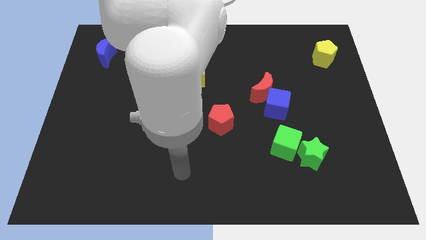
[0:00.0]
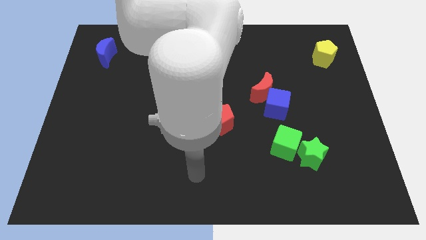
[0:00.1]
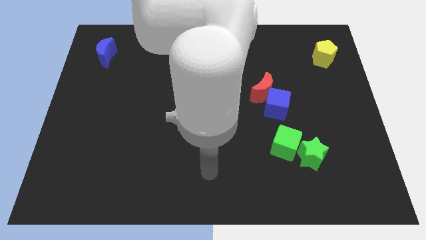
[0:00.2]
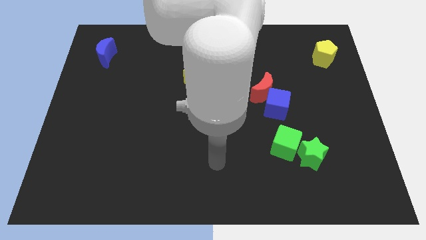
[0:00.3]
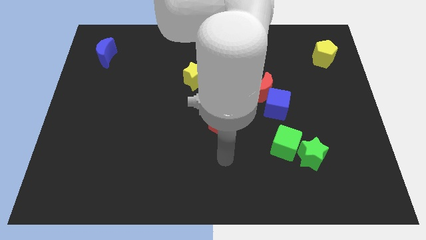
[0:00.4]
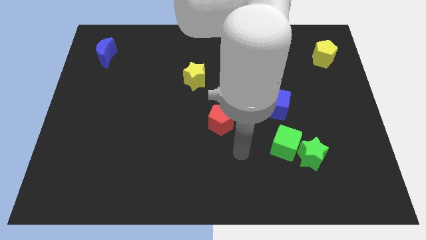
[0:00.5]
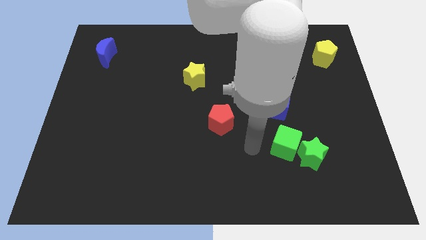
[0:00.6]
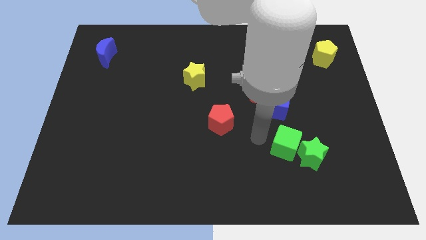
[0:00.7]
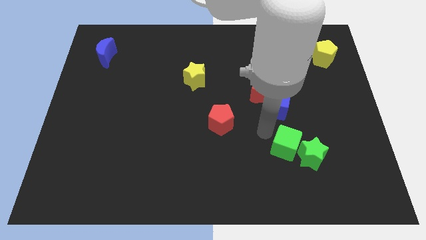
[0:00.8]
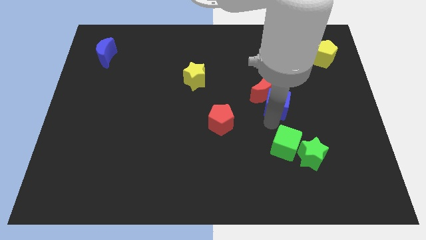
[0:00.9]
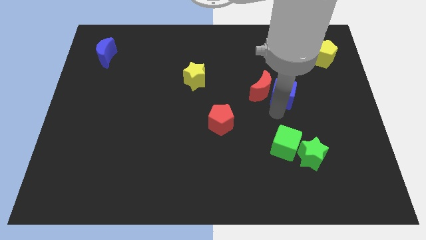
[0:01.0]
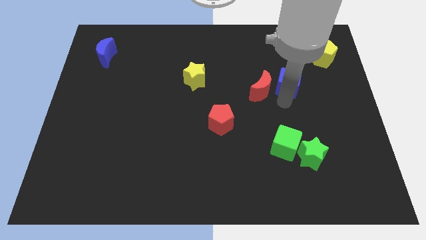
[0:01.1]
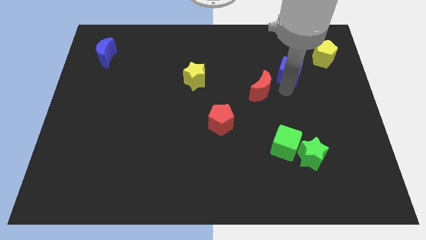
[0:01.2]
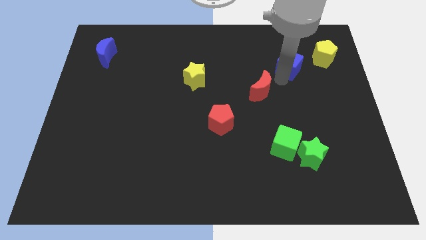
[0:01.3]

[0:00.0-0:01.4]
move the red moon away from the blue cube

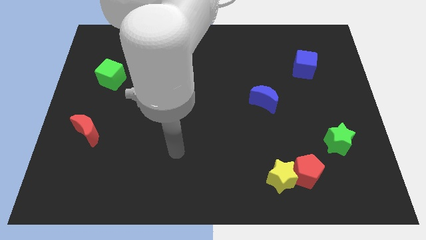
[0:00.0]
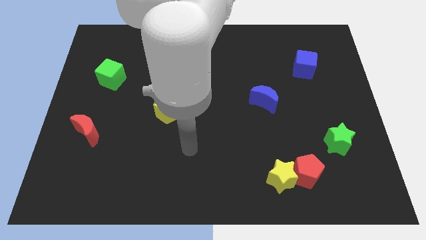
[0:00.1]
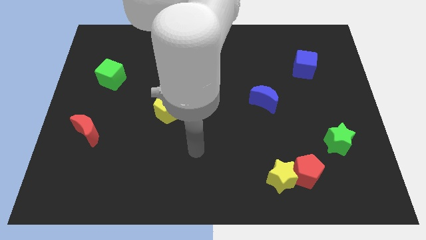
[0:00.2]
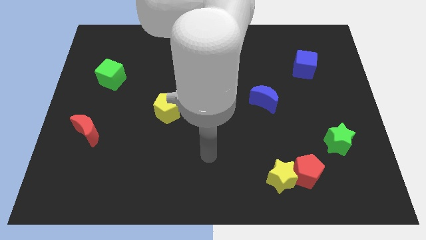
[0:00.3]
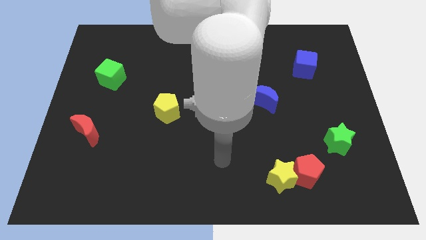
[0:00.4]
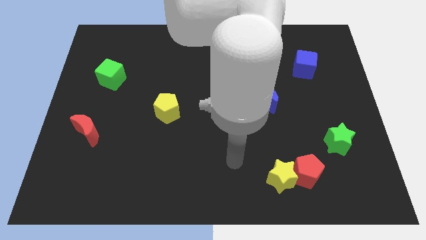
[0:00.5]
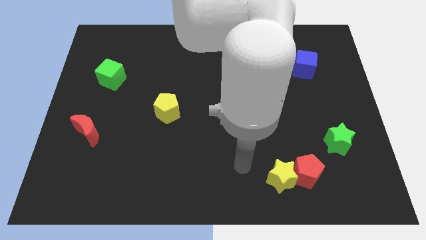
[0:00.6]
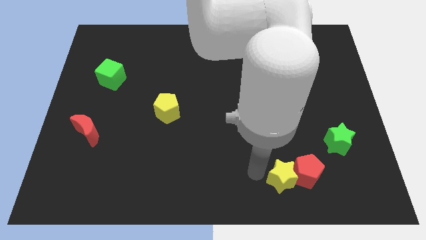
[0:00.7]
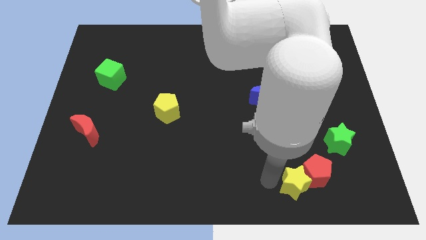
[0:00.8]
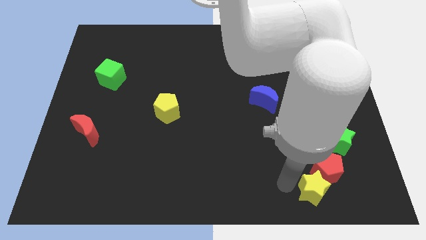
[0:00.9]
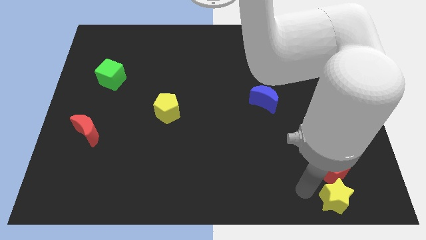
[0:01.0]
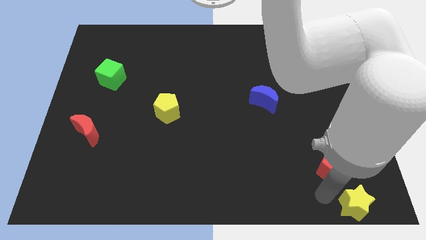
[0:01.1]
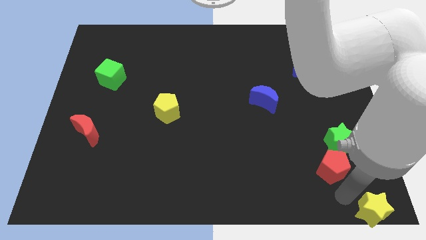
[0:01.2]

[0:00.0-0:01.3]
separate the red pentagon from the yellow star

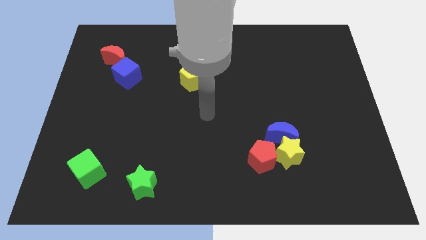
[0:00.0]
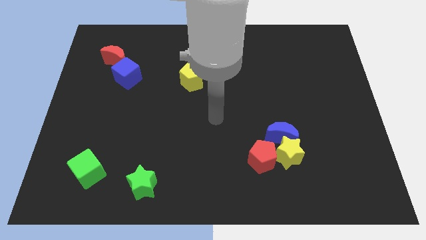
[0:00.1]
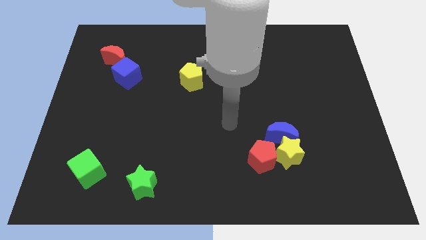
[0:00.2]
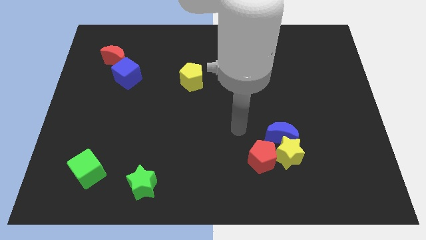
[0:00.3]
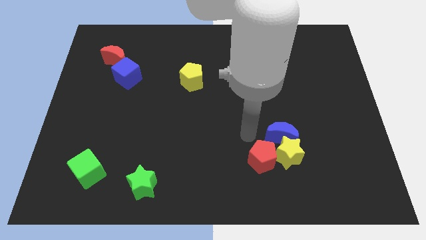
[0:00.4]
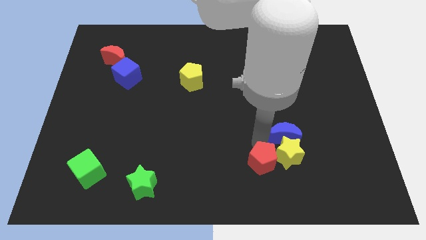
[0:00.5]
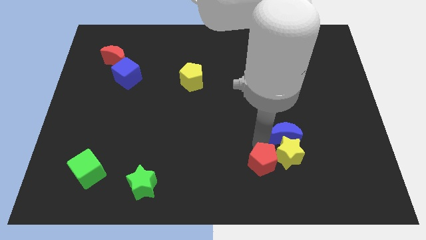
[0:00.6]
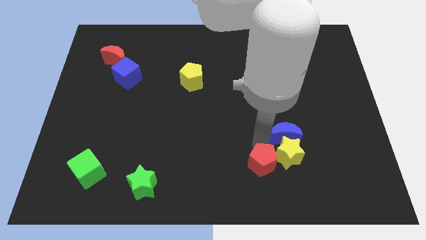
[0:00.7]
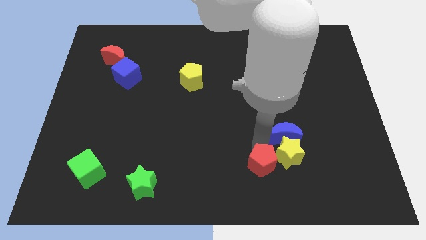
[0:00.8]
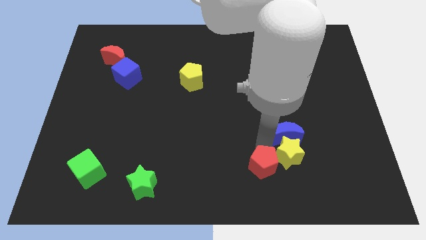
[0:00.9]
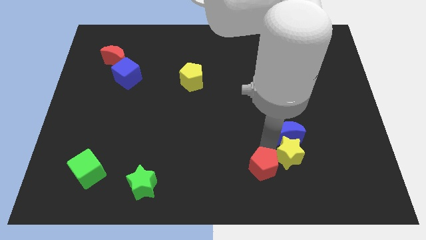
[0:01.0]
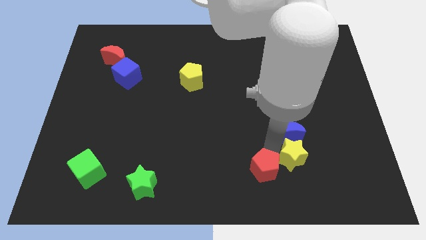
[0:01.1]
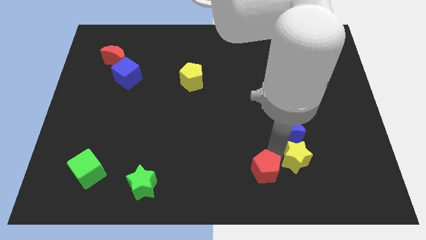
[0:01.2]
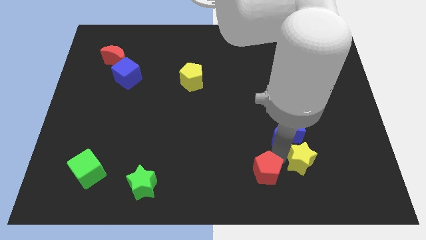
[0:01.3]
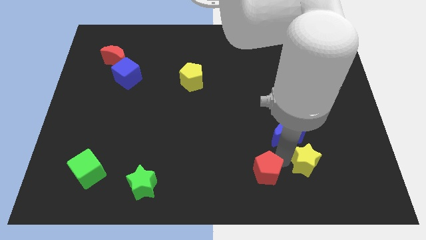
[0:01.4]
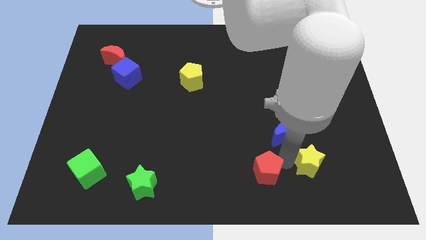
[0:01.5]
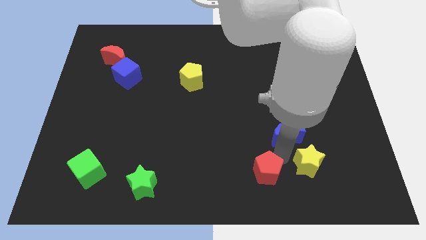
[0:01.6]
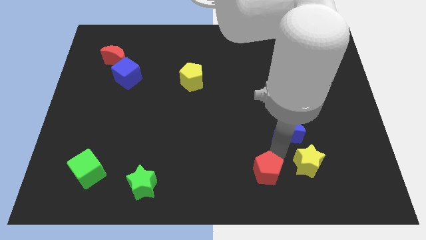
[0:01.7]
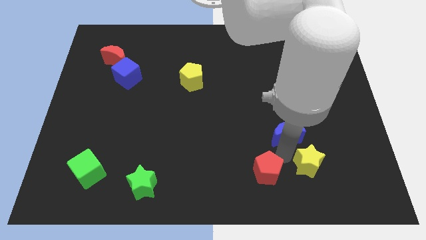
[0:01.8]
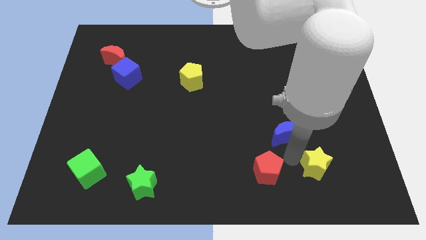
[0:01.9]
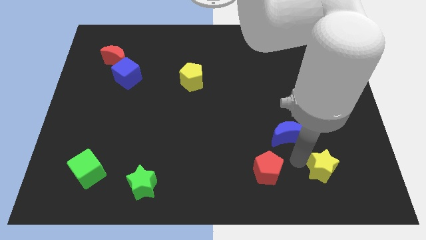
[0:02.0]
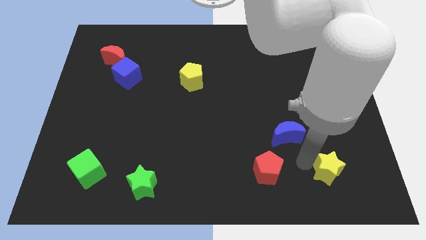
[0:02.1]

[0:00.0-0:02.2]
move the yellow star away from the blue moon and red pentagon

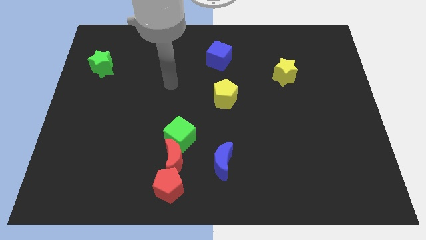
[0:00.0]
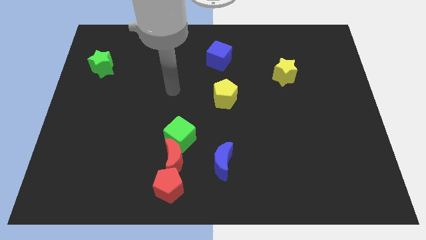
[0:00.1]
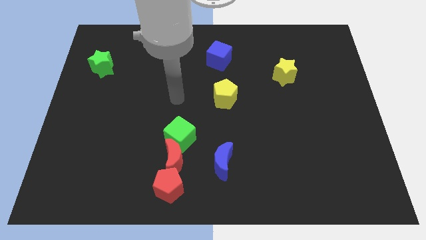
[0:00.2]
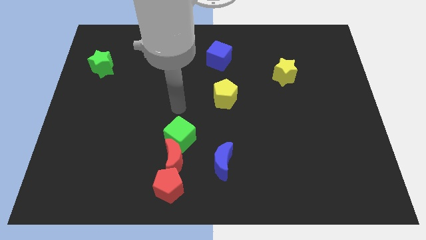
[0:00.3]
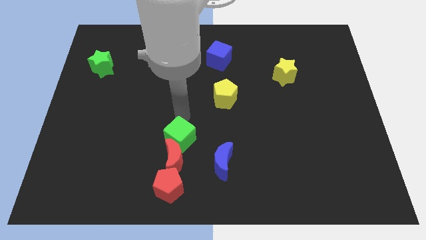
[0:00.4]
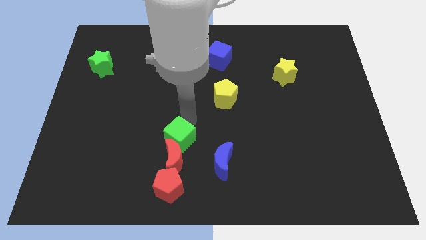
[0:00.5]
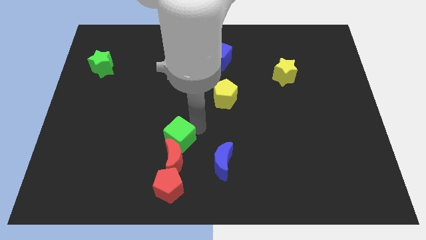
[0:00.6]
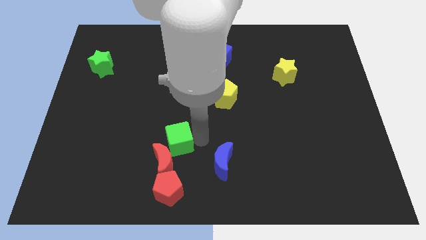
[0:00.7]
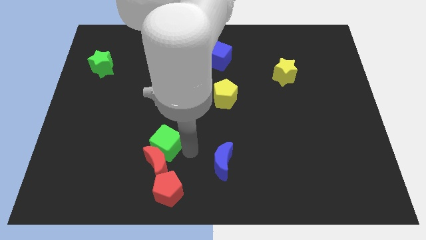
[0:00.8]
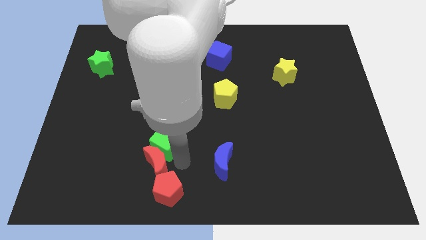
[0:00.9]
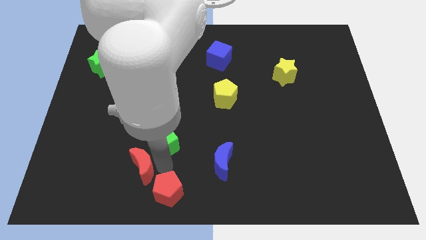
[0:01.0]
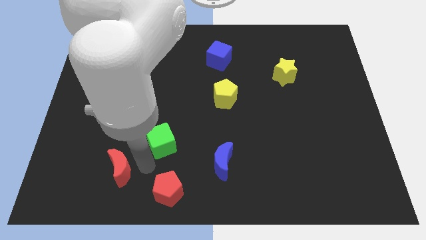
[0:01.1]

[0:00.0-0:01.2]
move the green cube away from the red moon

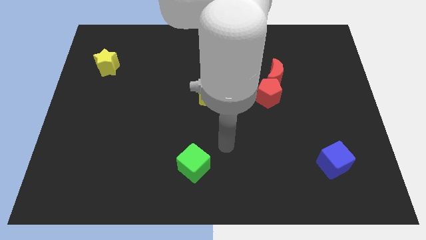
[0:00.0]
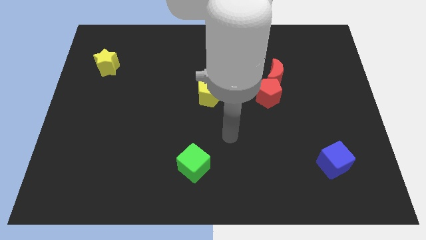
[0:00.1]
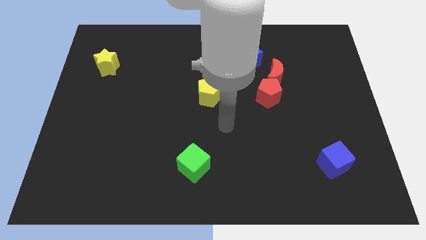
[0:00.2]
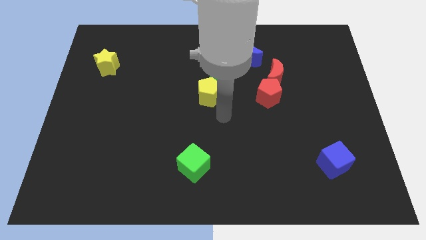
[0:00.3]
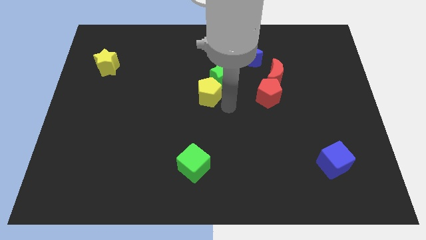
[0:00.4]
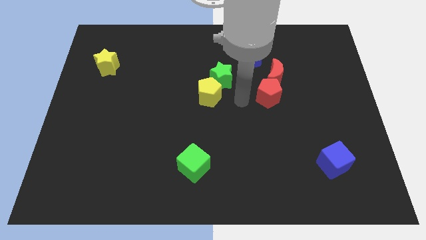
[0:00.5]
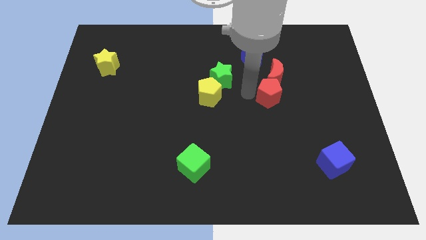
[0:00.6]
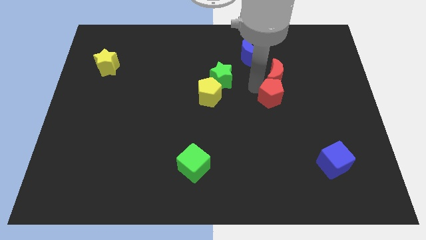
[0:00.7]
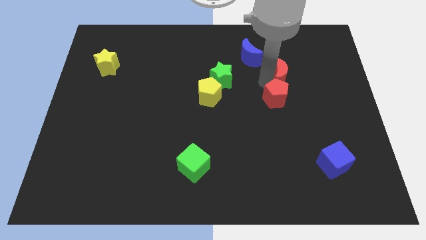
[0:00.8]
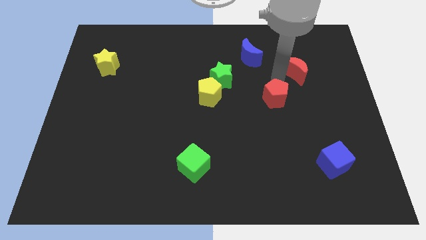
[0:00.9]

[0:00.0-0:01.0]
pull the red pentagon apart from the red moon

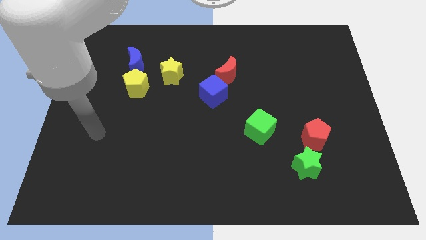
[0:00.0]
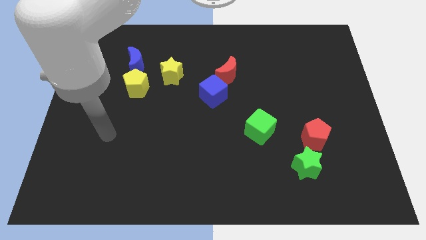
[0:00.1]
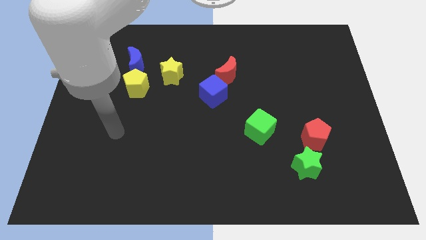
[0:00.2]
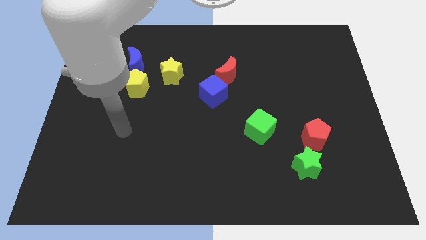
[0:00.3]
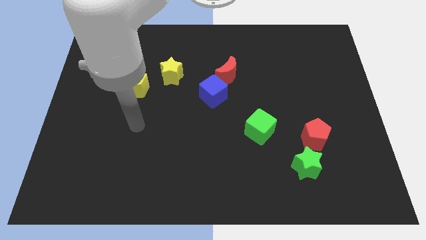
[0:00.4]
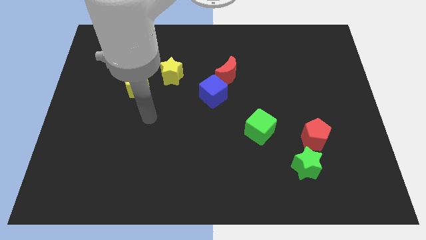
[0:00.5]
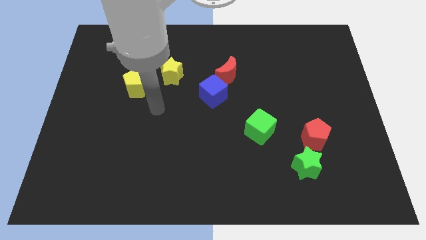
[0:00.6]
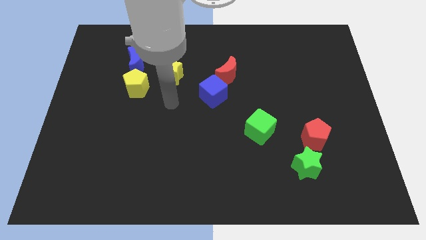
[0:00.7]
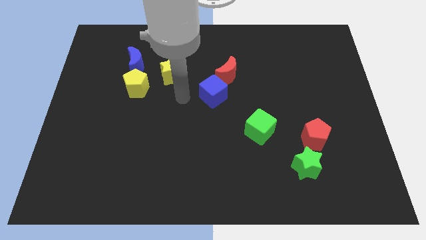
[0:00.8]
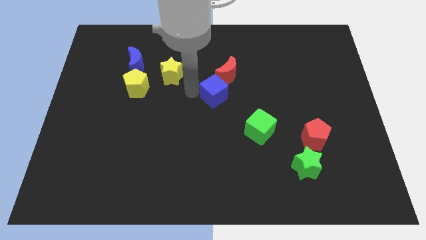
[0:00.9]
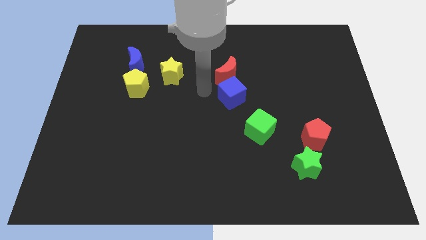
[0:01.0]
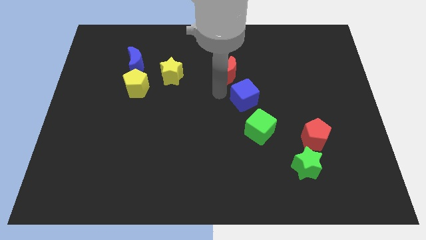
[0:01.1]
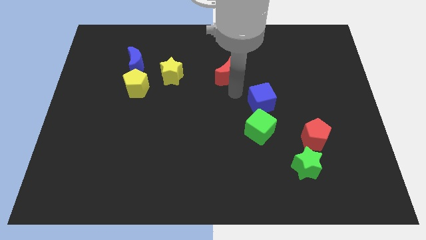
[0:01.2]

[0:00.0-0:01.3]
separate the red moon from the blue cube

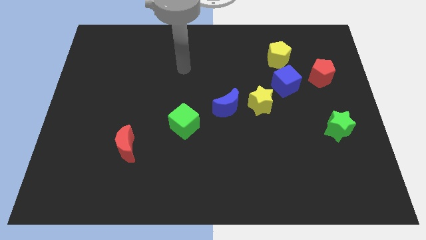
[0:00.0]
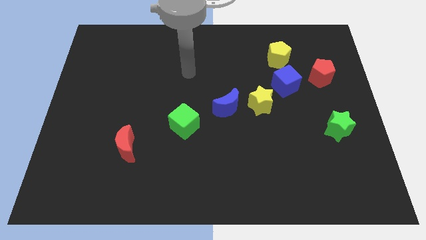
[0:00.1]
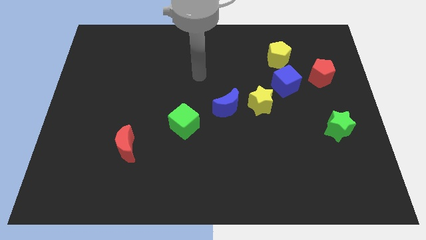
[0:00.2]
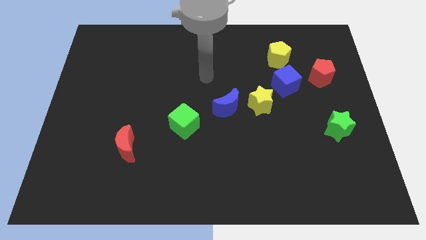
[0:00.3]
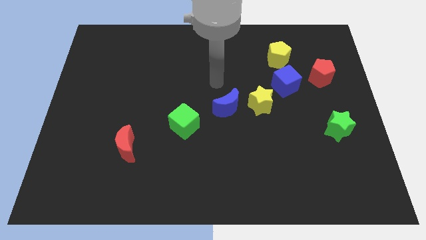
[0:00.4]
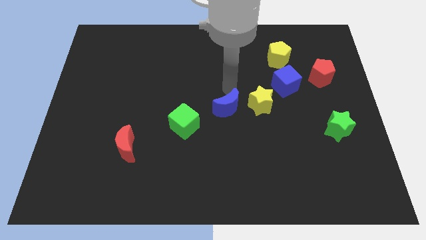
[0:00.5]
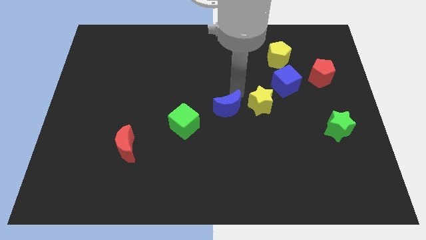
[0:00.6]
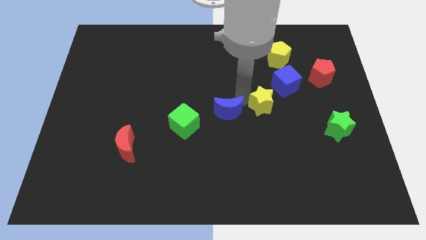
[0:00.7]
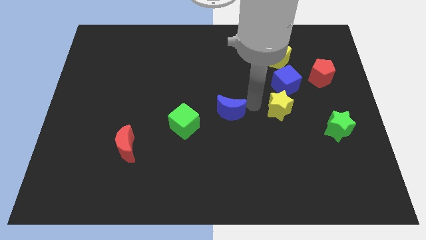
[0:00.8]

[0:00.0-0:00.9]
separate the blue moon from the yellow star
